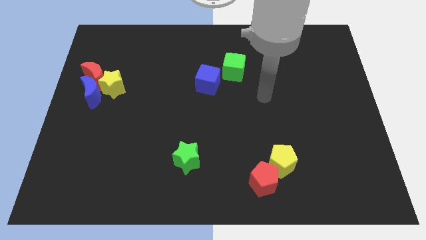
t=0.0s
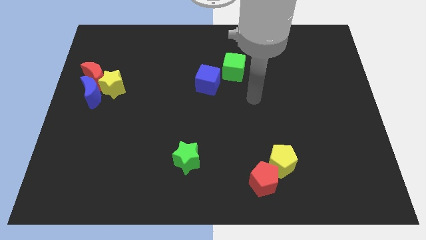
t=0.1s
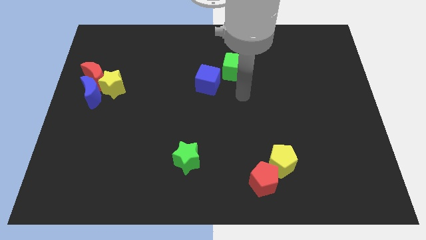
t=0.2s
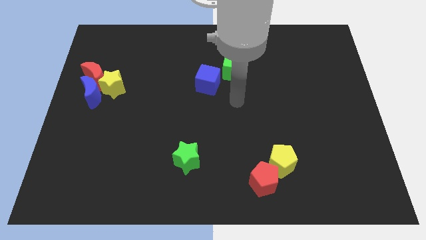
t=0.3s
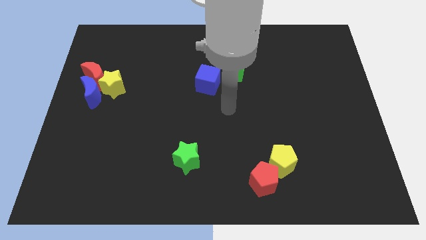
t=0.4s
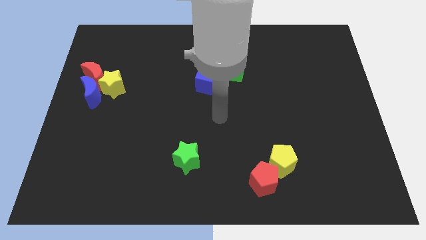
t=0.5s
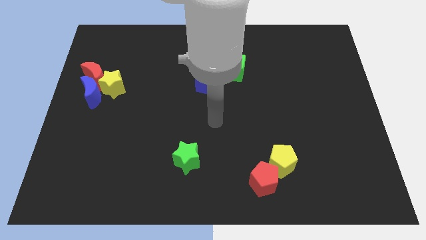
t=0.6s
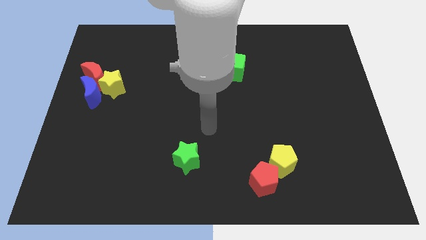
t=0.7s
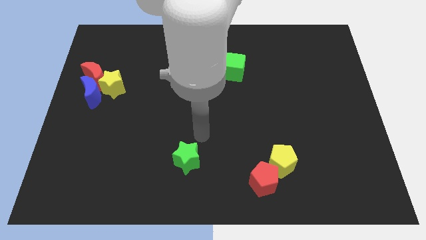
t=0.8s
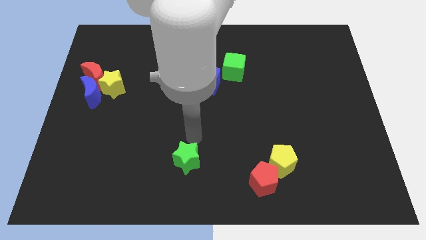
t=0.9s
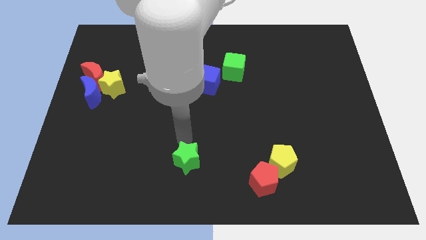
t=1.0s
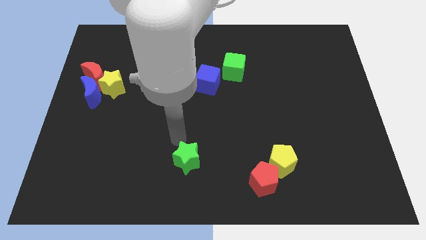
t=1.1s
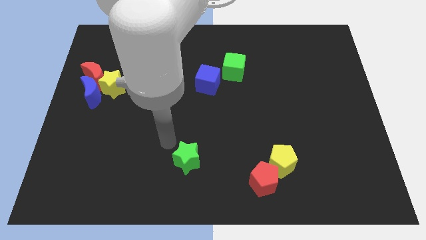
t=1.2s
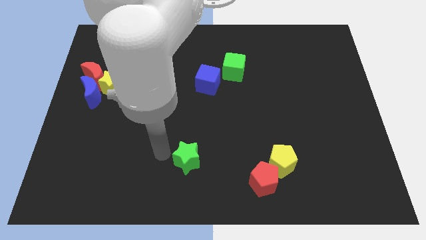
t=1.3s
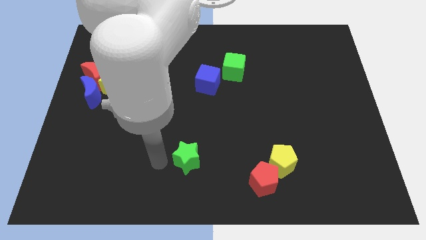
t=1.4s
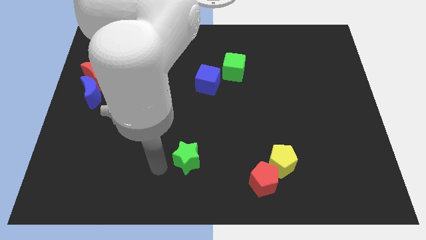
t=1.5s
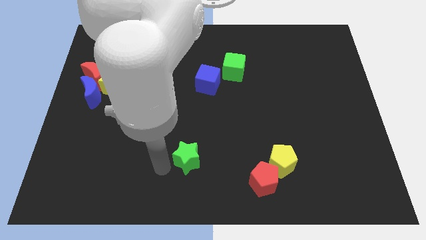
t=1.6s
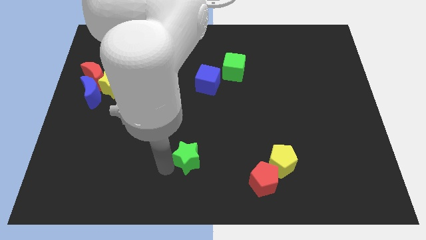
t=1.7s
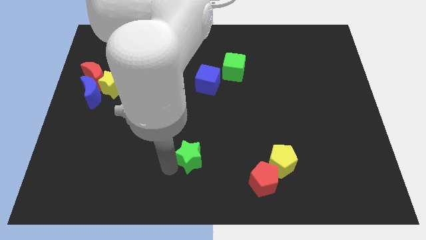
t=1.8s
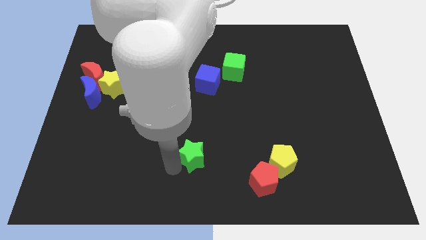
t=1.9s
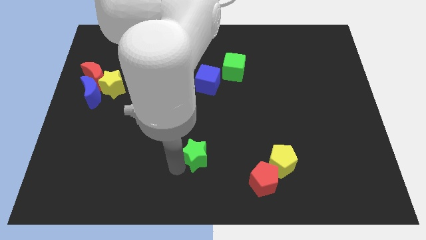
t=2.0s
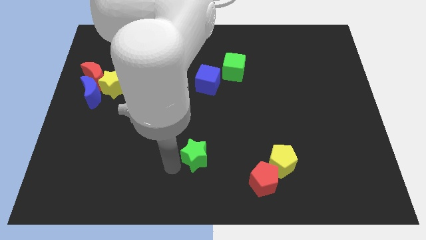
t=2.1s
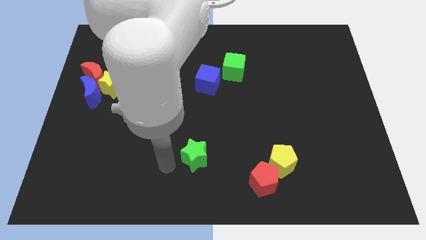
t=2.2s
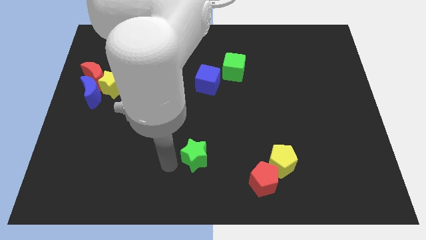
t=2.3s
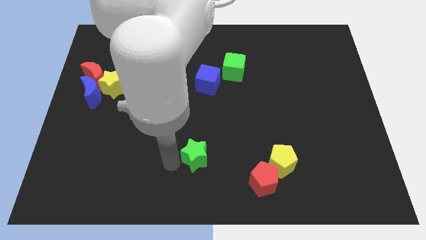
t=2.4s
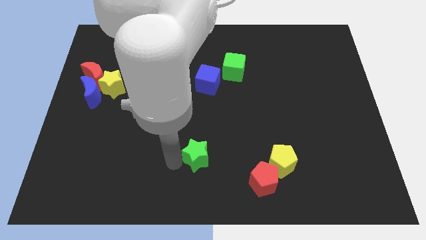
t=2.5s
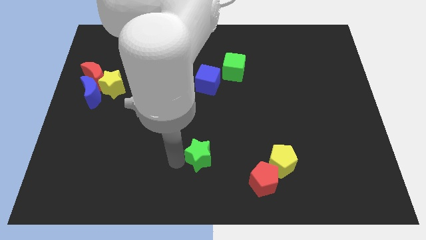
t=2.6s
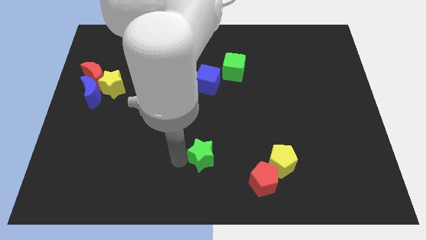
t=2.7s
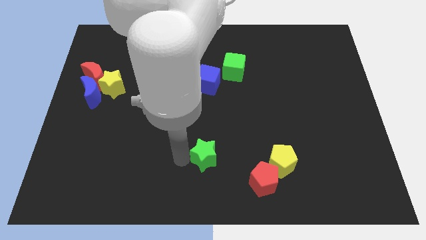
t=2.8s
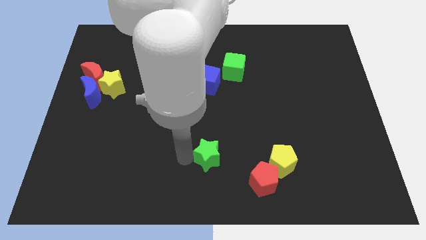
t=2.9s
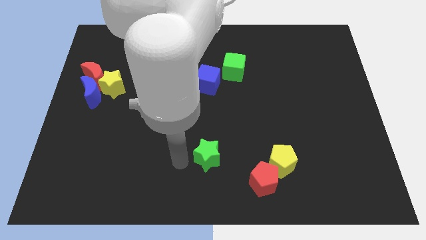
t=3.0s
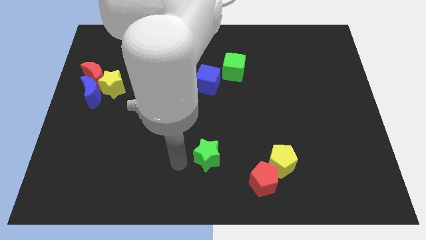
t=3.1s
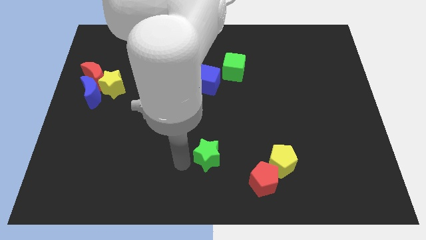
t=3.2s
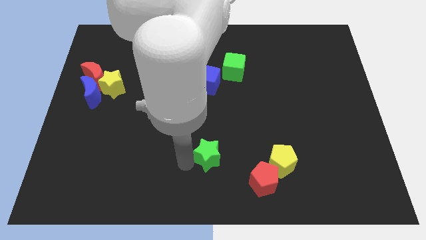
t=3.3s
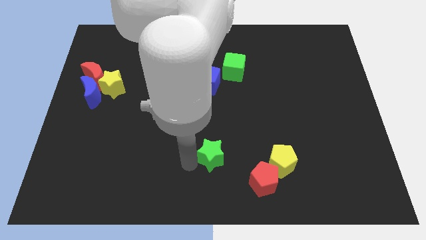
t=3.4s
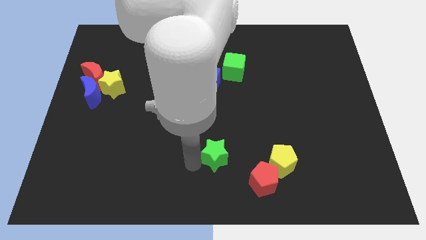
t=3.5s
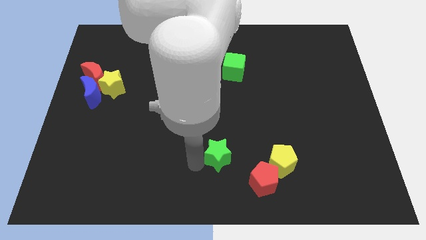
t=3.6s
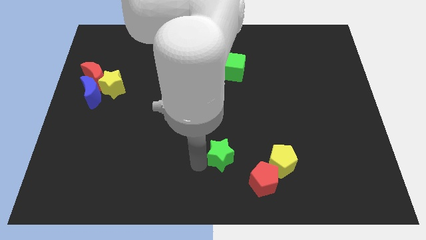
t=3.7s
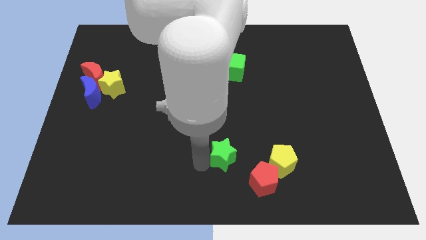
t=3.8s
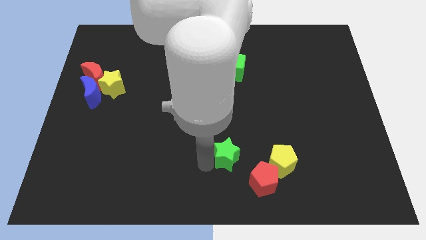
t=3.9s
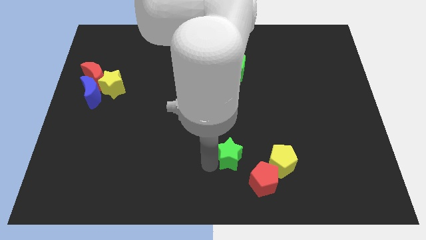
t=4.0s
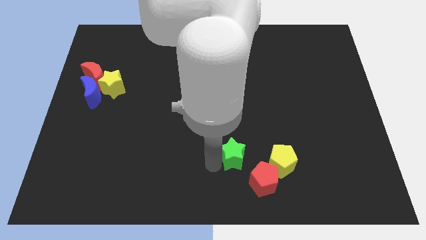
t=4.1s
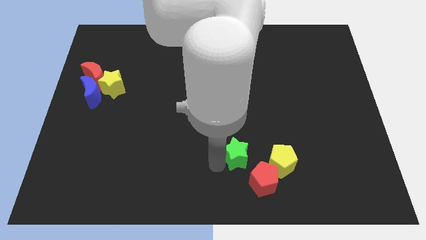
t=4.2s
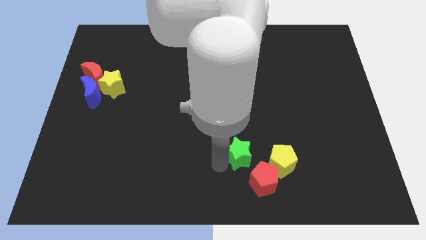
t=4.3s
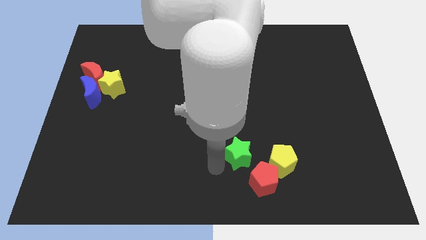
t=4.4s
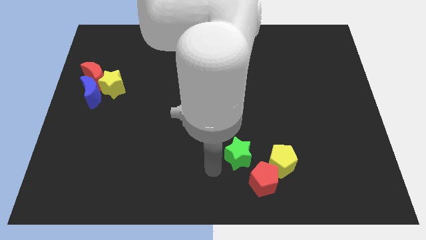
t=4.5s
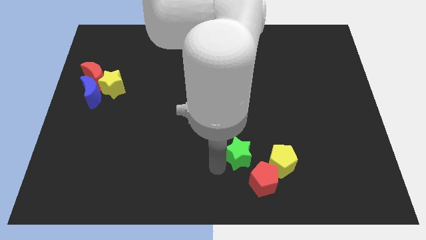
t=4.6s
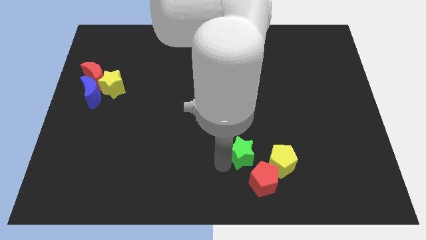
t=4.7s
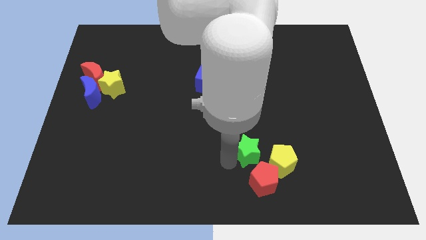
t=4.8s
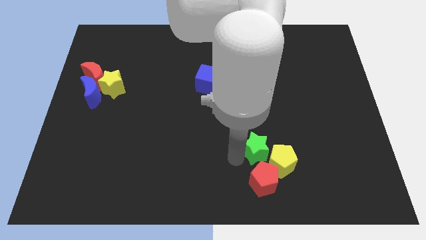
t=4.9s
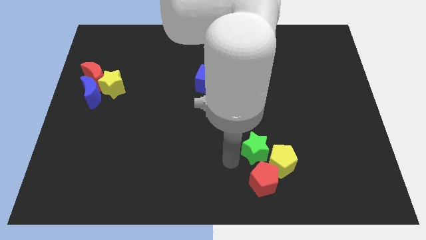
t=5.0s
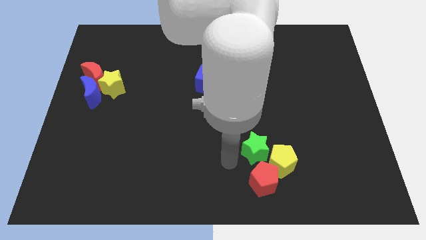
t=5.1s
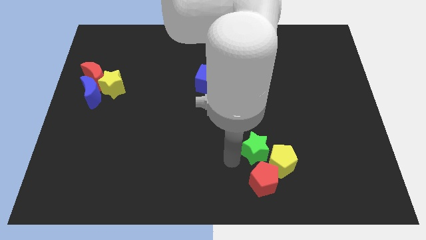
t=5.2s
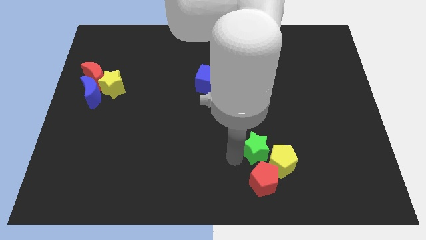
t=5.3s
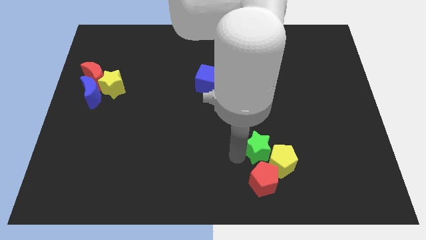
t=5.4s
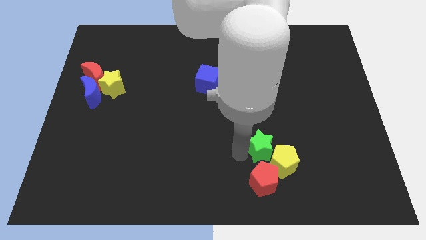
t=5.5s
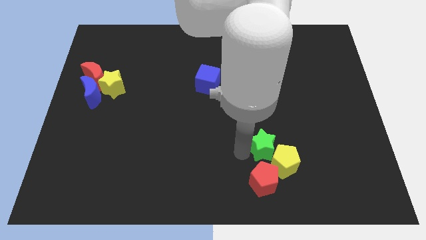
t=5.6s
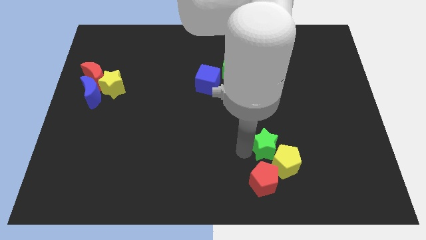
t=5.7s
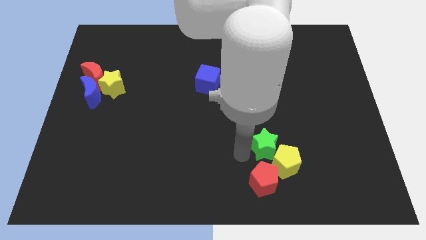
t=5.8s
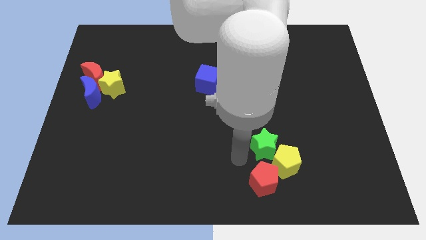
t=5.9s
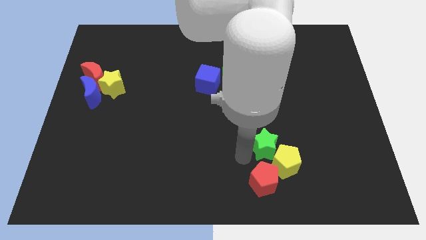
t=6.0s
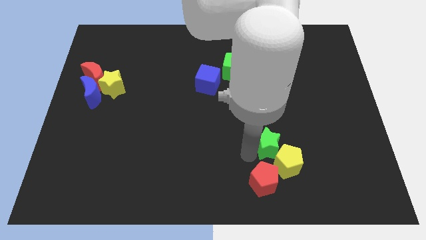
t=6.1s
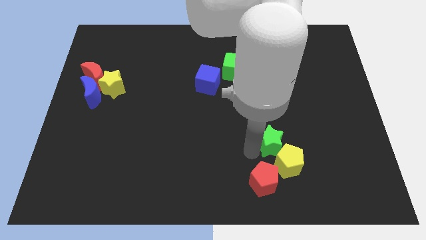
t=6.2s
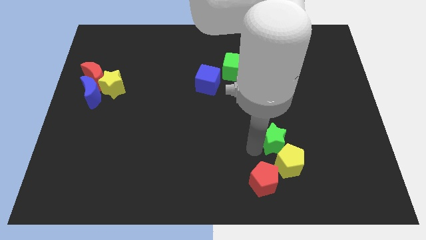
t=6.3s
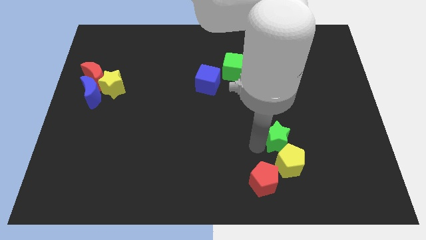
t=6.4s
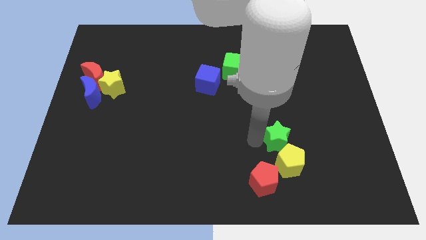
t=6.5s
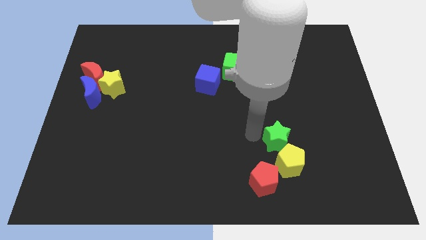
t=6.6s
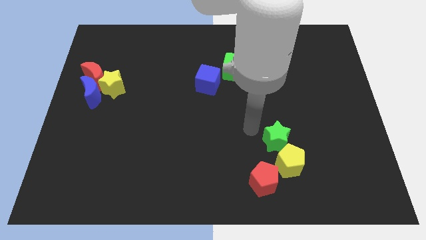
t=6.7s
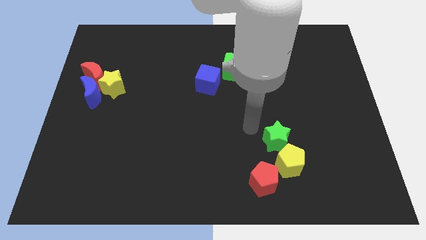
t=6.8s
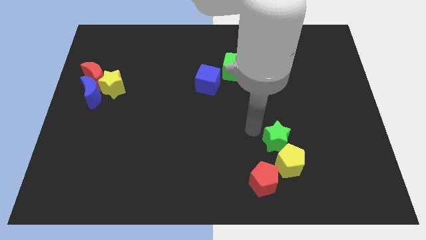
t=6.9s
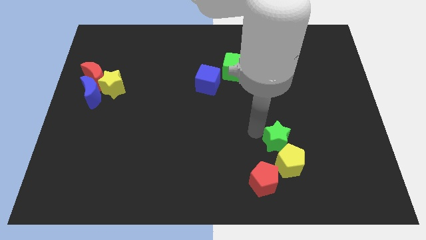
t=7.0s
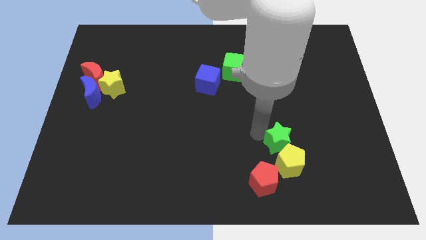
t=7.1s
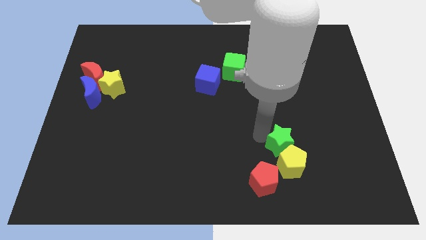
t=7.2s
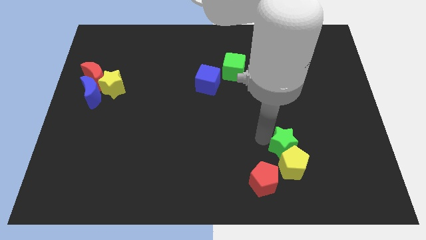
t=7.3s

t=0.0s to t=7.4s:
move the green star to the right

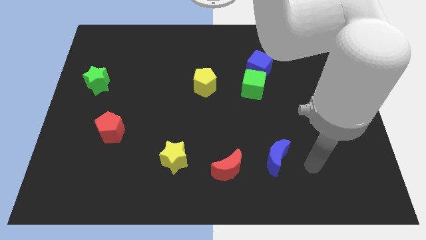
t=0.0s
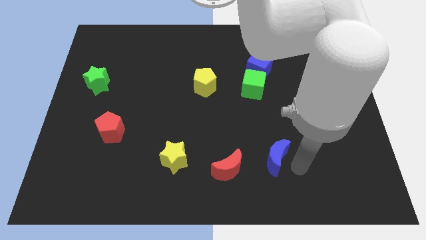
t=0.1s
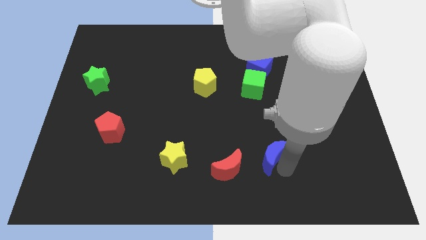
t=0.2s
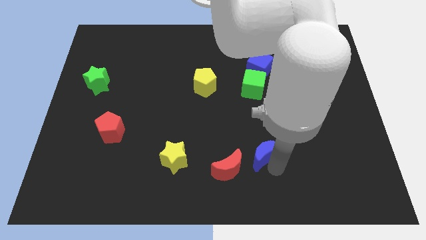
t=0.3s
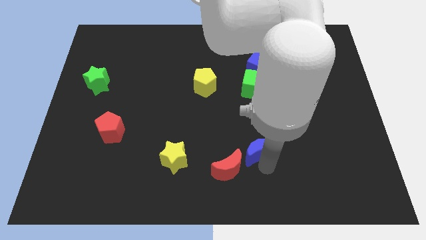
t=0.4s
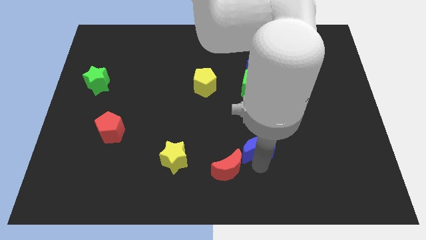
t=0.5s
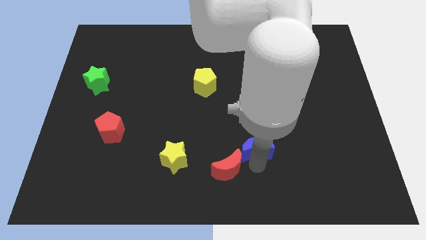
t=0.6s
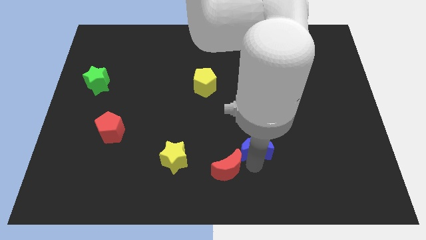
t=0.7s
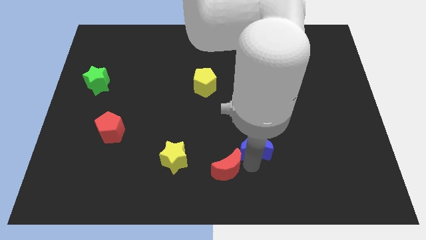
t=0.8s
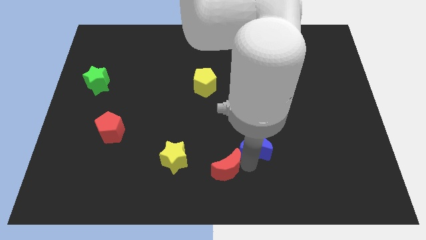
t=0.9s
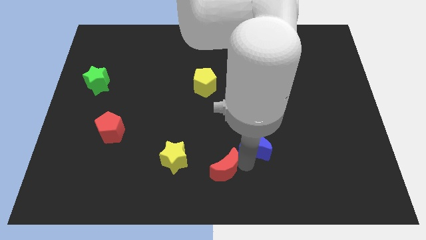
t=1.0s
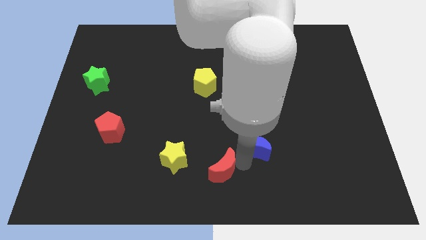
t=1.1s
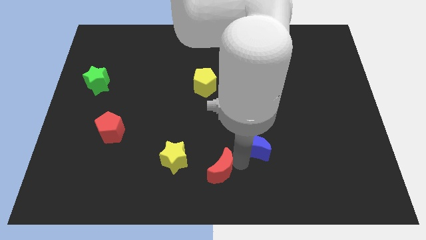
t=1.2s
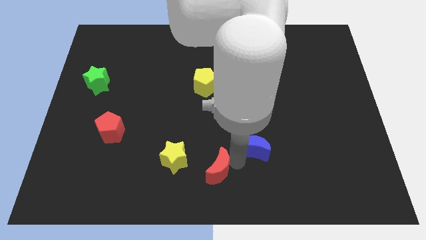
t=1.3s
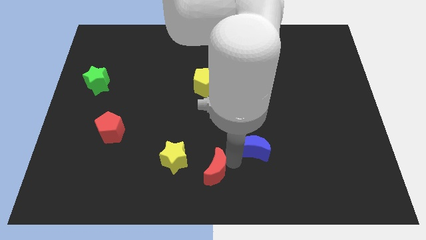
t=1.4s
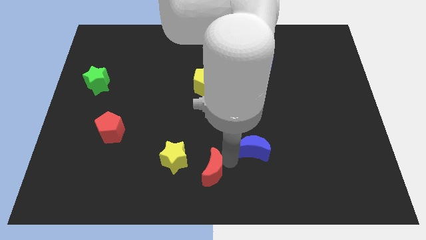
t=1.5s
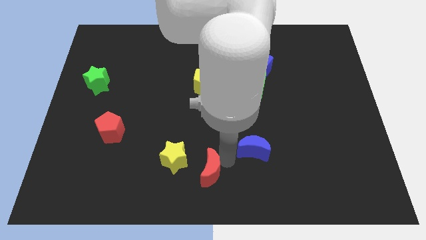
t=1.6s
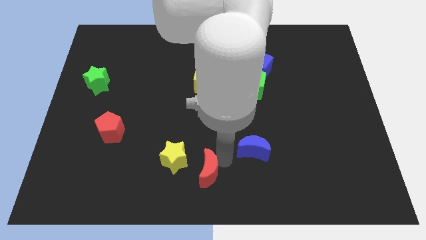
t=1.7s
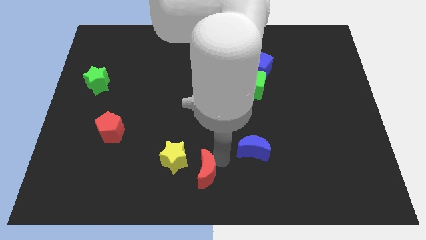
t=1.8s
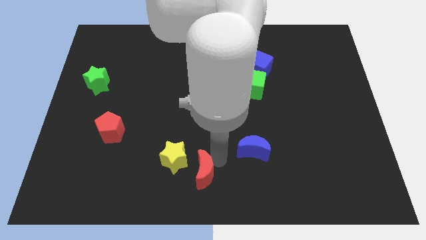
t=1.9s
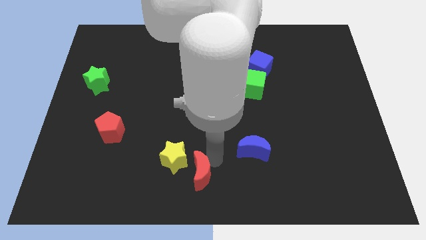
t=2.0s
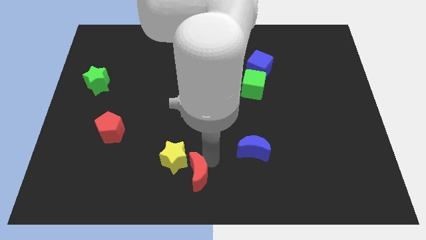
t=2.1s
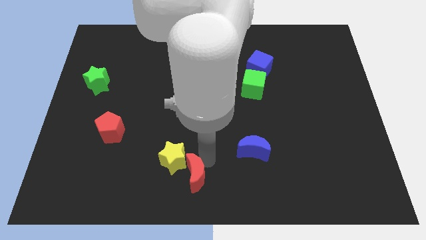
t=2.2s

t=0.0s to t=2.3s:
slightly move the red moon to the left
